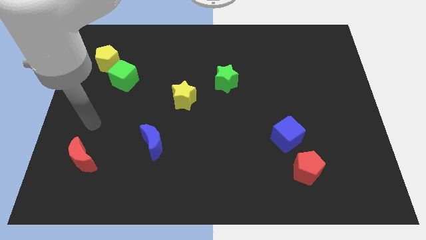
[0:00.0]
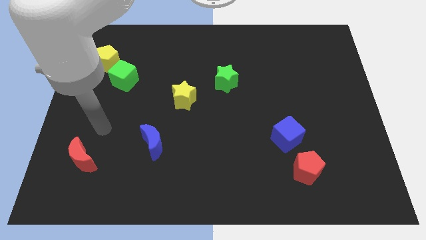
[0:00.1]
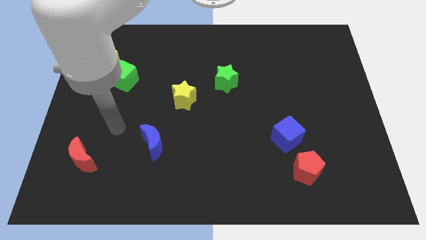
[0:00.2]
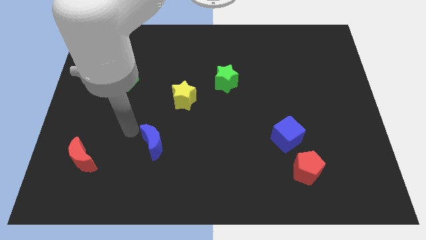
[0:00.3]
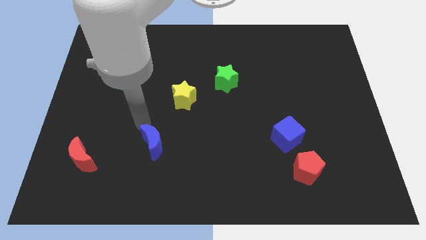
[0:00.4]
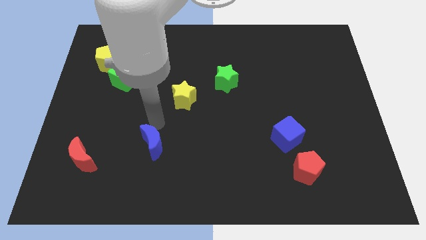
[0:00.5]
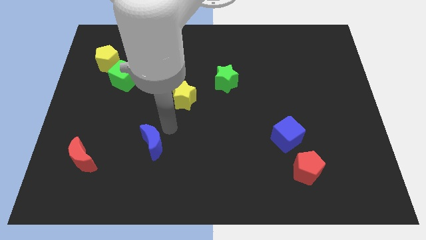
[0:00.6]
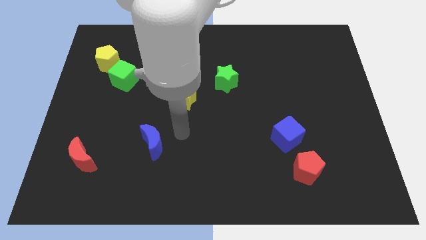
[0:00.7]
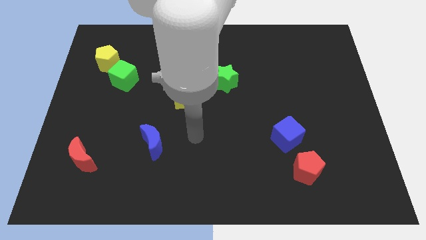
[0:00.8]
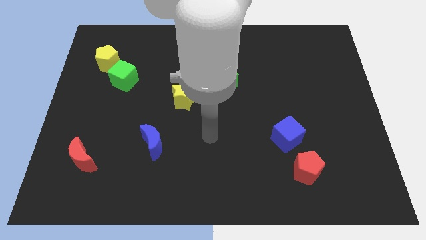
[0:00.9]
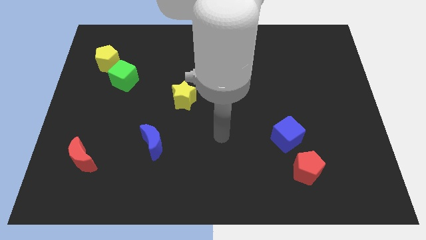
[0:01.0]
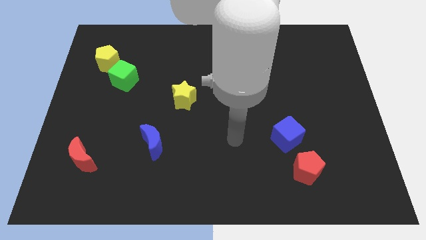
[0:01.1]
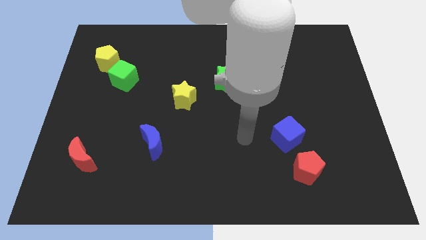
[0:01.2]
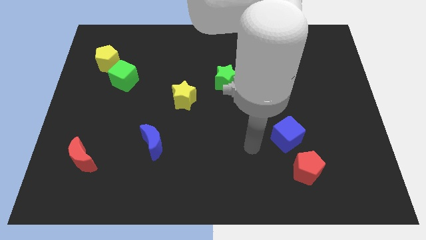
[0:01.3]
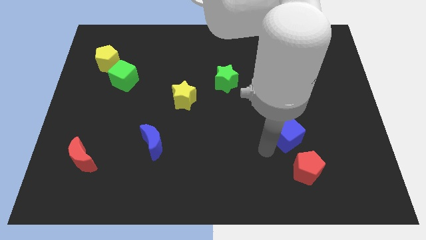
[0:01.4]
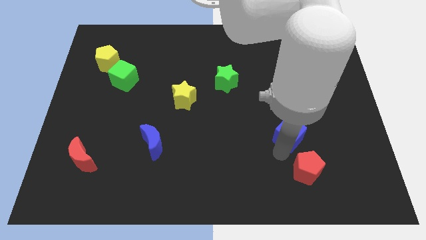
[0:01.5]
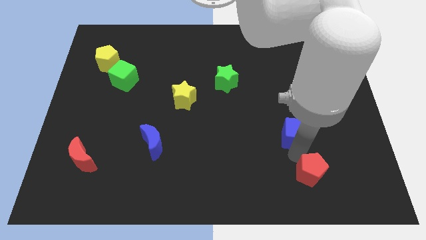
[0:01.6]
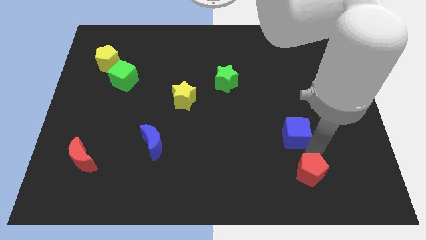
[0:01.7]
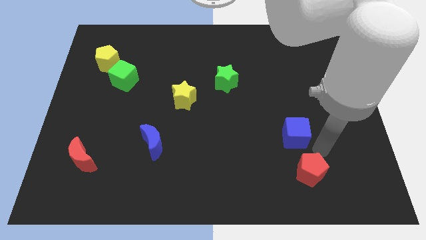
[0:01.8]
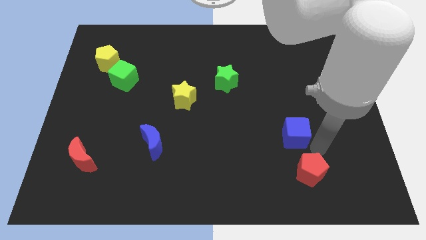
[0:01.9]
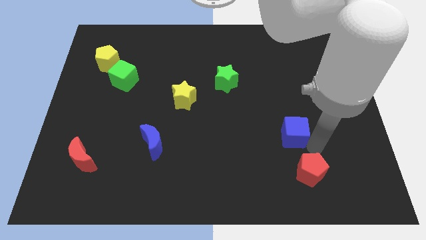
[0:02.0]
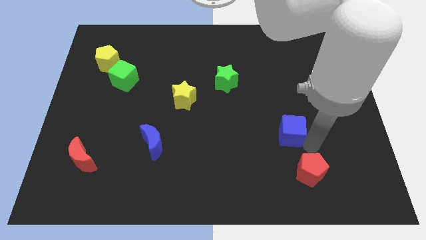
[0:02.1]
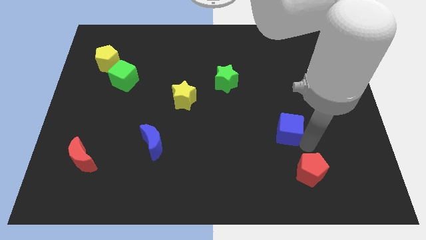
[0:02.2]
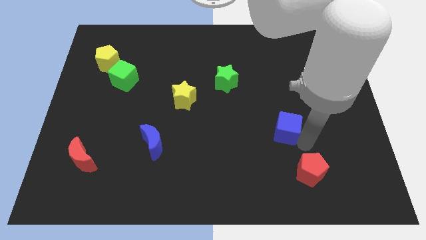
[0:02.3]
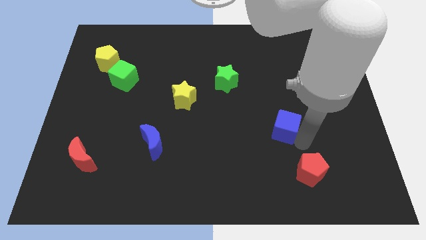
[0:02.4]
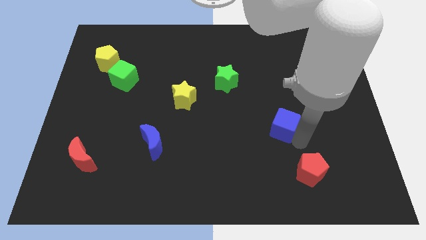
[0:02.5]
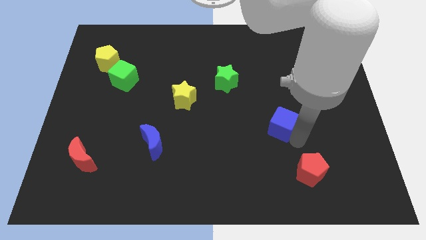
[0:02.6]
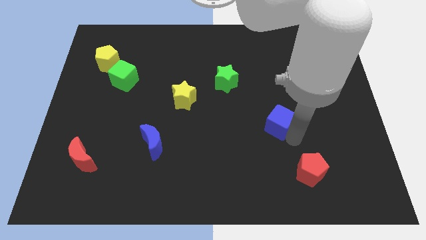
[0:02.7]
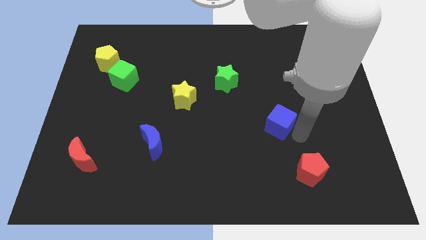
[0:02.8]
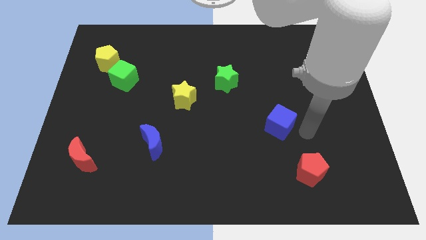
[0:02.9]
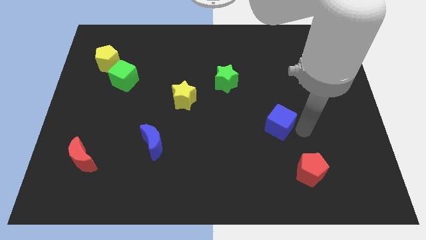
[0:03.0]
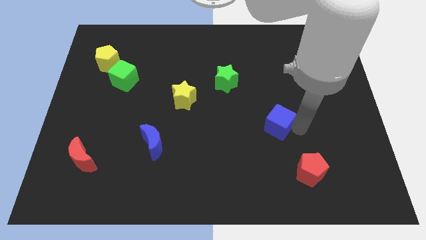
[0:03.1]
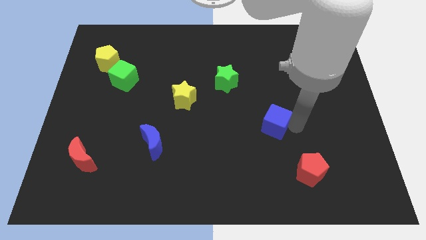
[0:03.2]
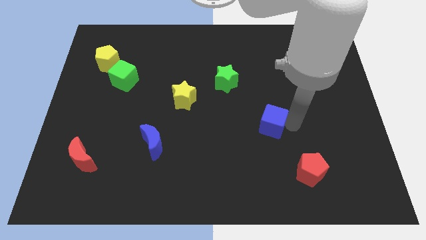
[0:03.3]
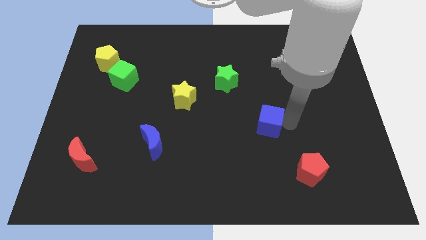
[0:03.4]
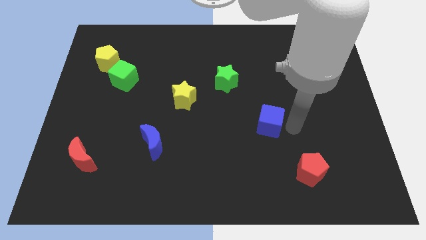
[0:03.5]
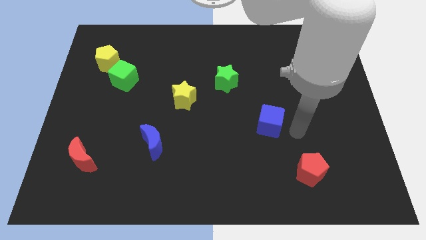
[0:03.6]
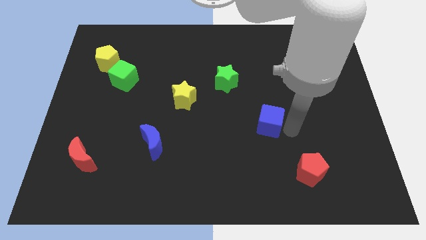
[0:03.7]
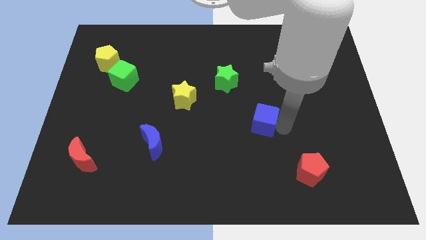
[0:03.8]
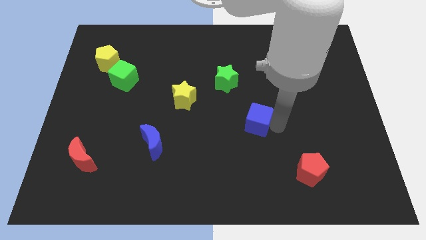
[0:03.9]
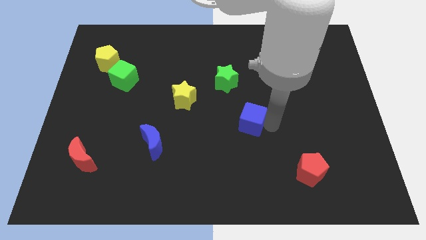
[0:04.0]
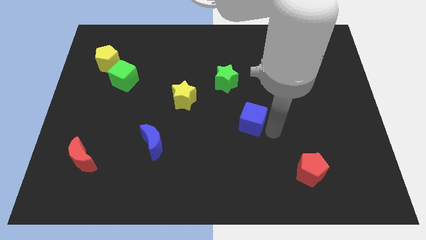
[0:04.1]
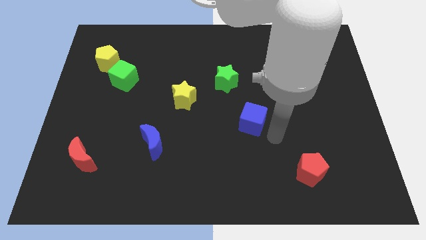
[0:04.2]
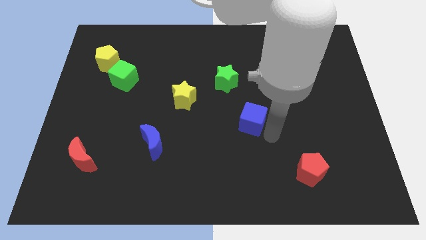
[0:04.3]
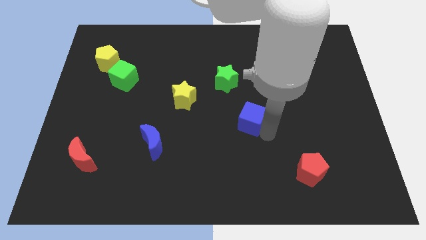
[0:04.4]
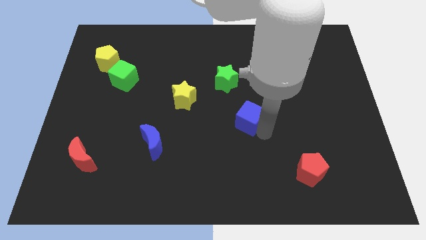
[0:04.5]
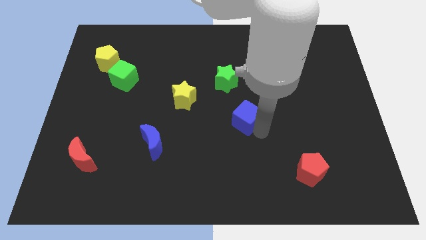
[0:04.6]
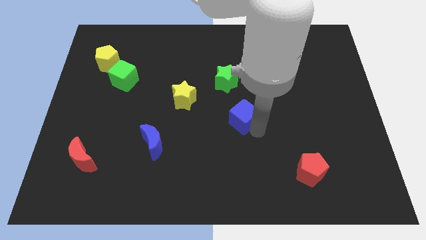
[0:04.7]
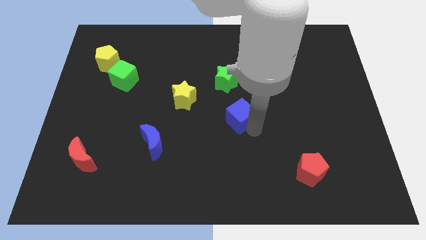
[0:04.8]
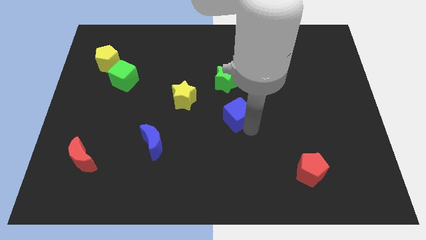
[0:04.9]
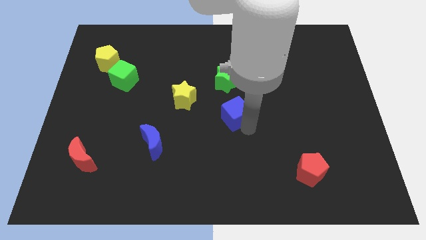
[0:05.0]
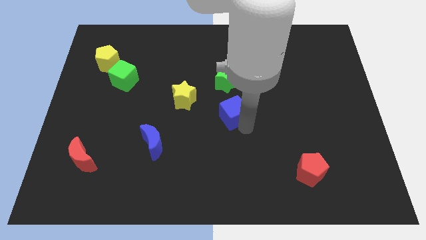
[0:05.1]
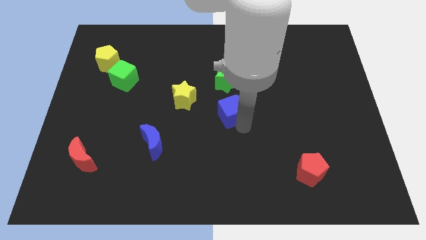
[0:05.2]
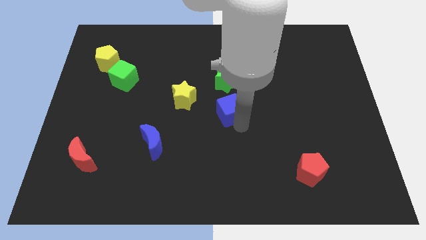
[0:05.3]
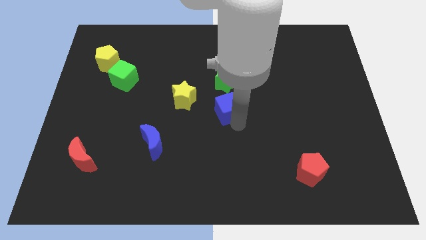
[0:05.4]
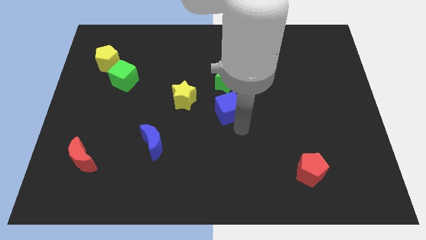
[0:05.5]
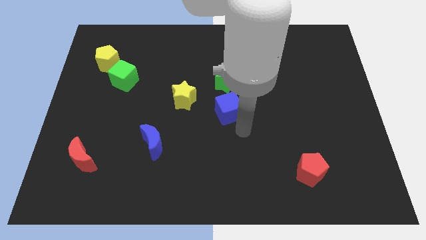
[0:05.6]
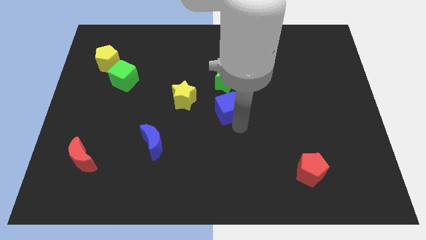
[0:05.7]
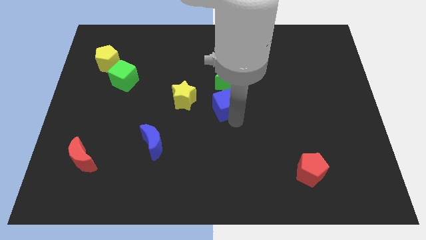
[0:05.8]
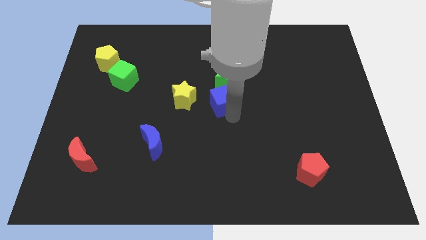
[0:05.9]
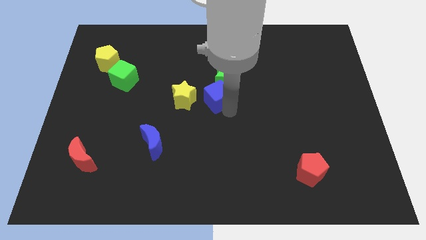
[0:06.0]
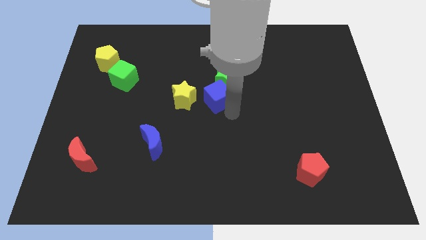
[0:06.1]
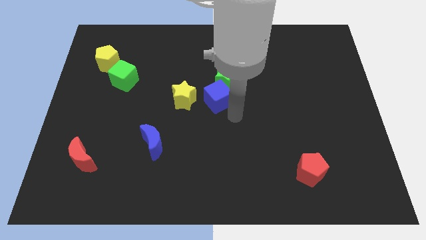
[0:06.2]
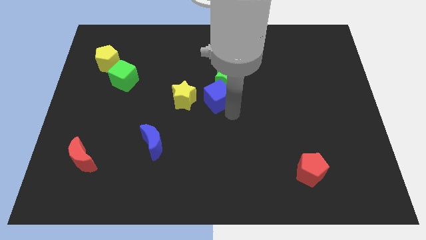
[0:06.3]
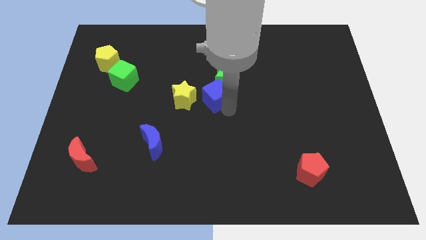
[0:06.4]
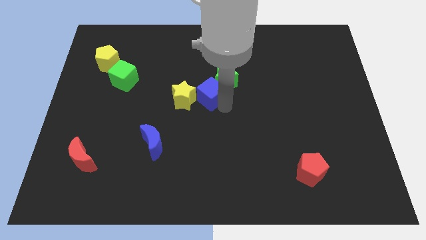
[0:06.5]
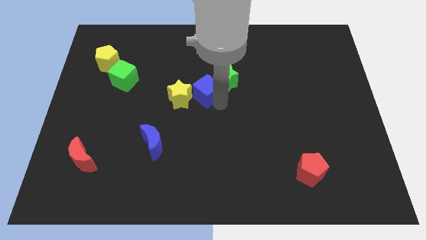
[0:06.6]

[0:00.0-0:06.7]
slide the blue cube up and then left

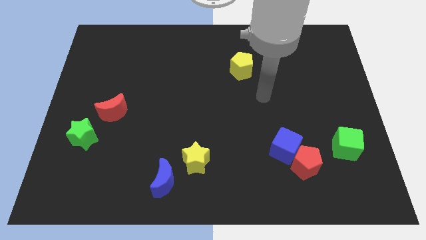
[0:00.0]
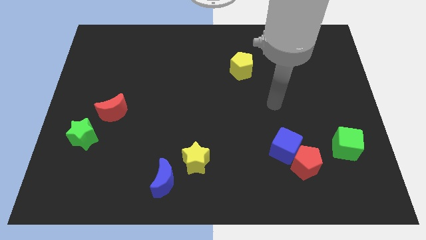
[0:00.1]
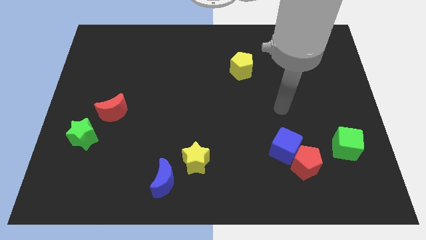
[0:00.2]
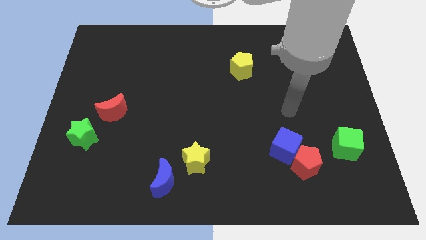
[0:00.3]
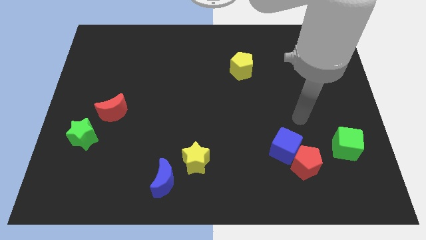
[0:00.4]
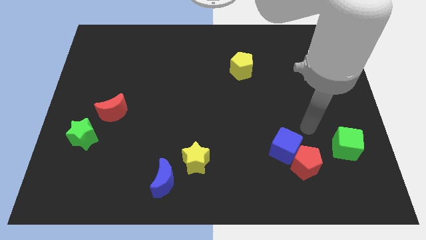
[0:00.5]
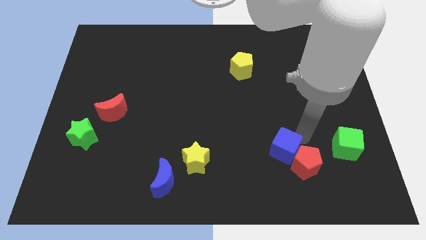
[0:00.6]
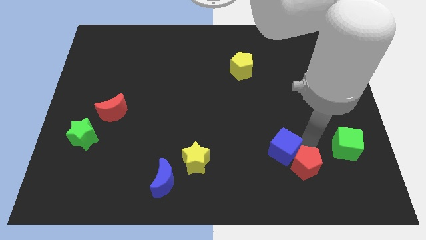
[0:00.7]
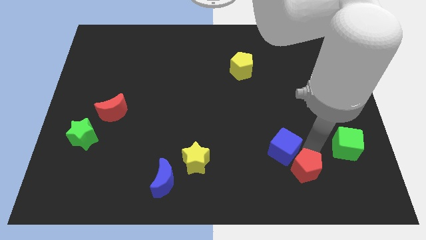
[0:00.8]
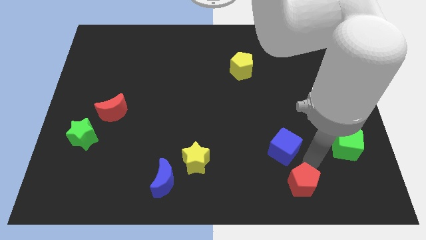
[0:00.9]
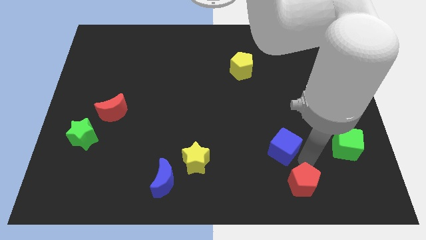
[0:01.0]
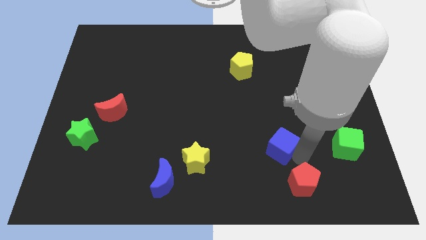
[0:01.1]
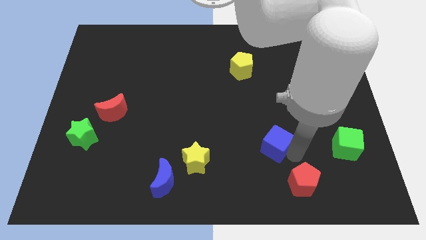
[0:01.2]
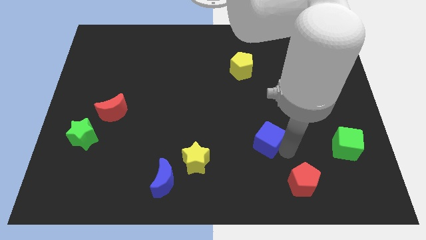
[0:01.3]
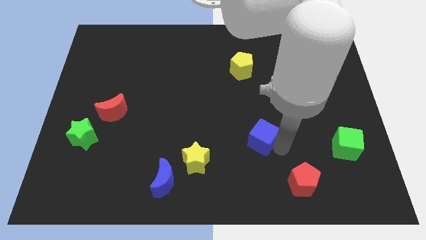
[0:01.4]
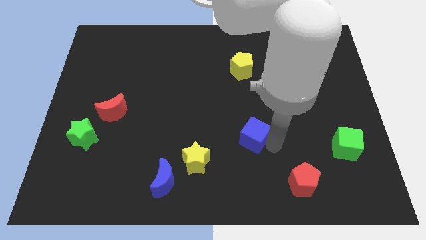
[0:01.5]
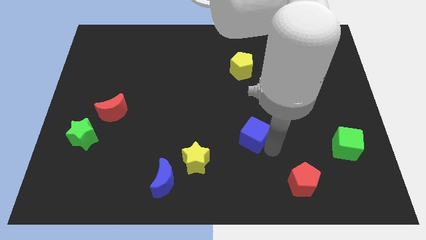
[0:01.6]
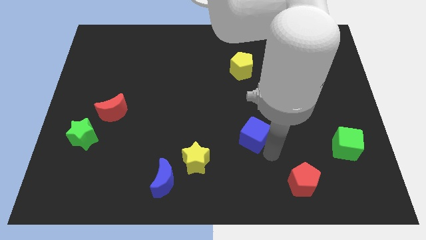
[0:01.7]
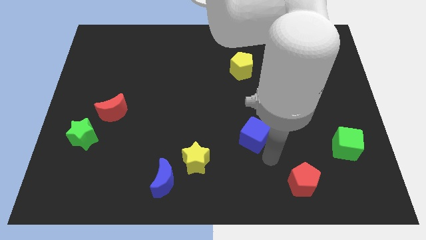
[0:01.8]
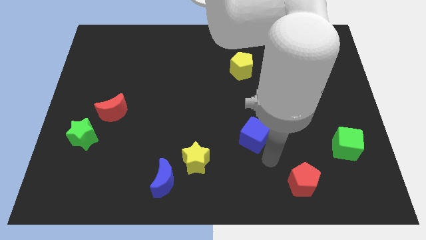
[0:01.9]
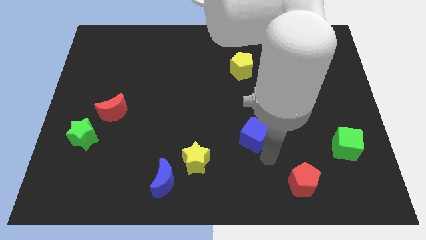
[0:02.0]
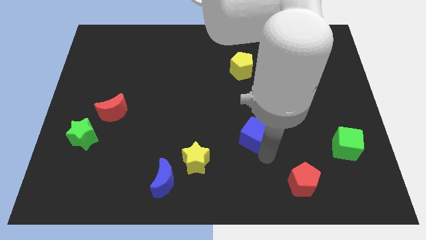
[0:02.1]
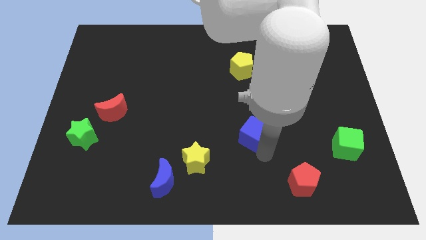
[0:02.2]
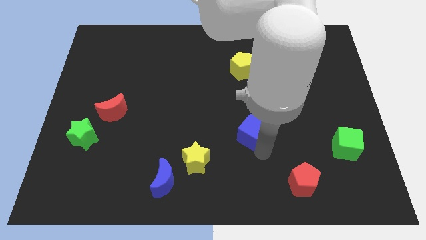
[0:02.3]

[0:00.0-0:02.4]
slightly move the blue cube up and left diagonally
